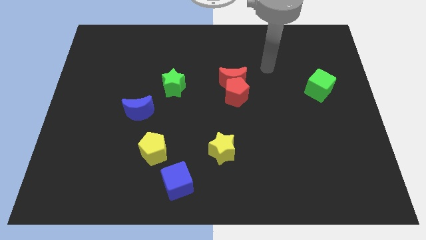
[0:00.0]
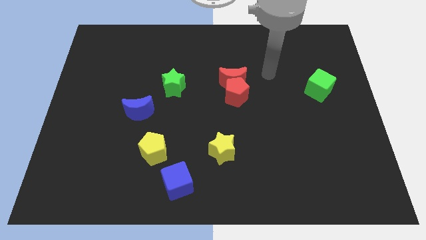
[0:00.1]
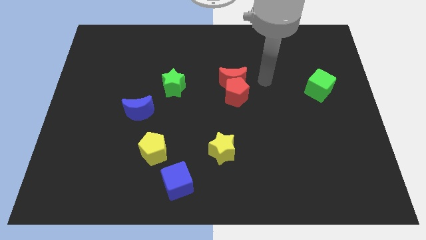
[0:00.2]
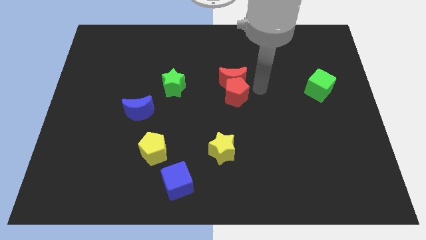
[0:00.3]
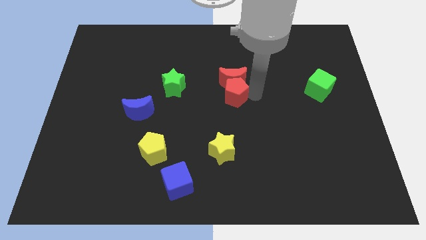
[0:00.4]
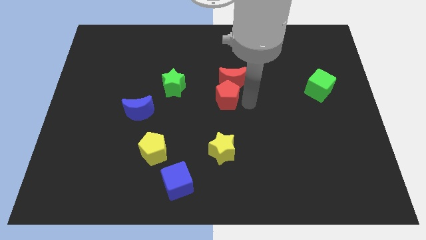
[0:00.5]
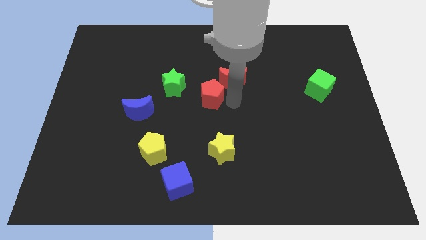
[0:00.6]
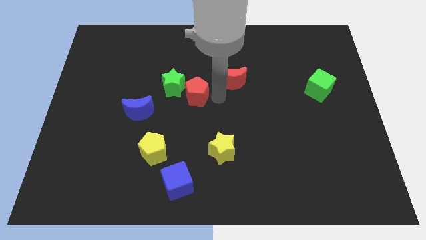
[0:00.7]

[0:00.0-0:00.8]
move the red moon away from the red pentagon

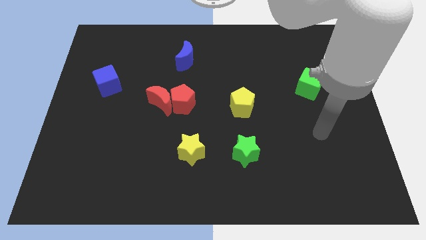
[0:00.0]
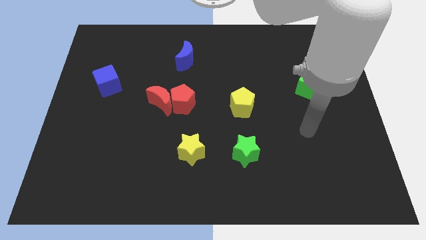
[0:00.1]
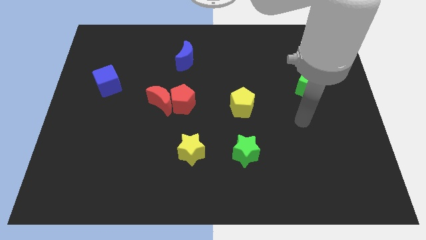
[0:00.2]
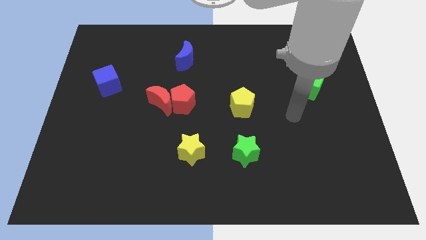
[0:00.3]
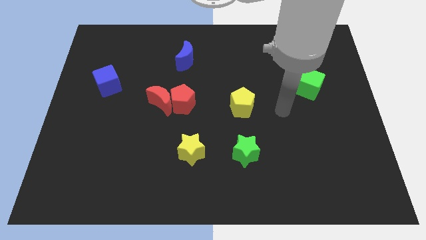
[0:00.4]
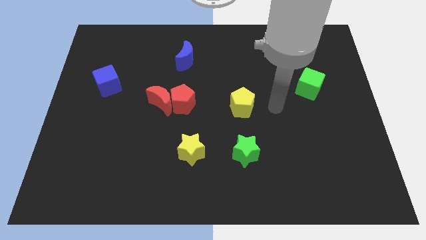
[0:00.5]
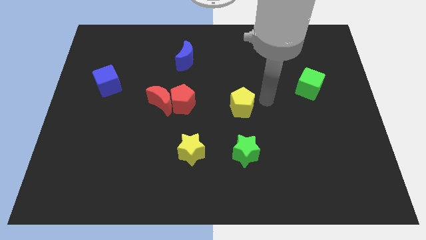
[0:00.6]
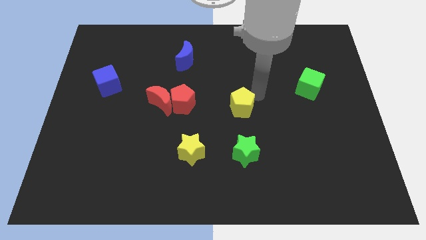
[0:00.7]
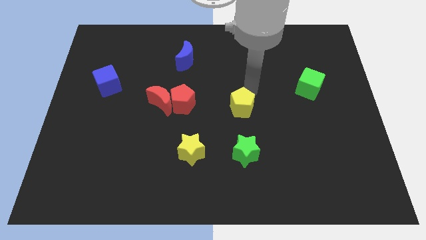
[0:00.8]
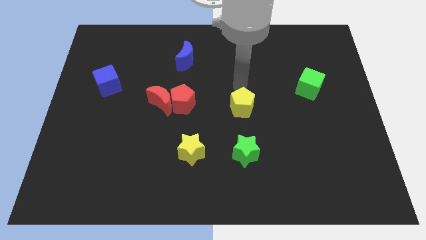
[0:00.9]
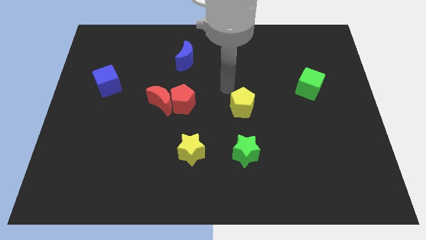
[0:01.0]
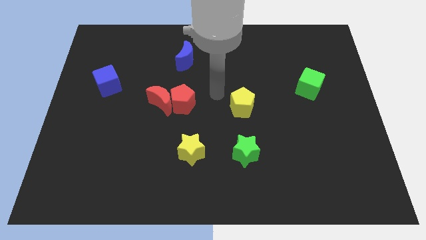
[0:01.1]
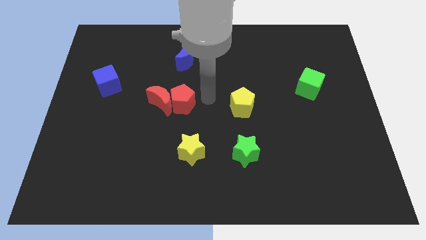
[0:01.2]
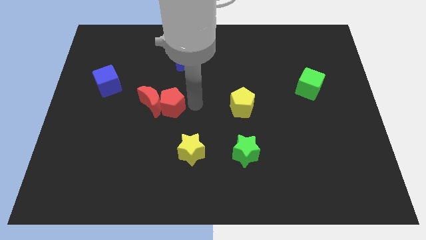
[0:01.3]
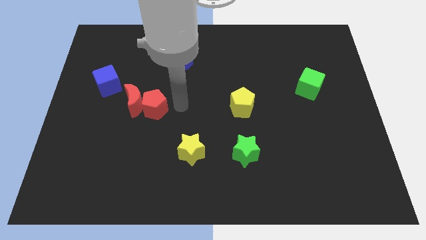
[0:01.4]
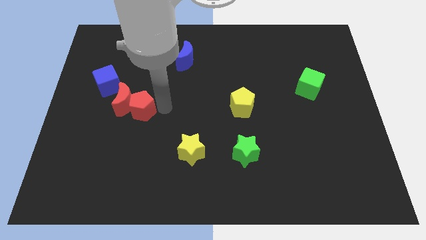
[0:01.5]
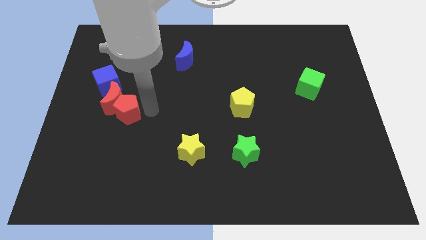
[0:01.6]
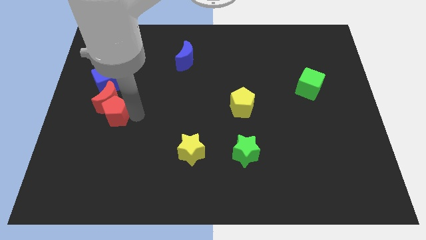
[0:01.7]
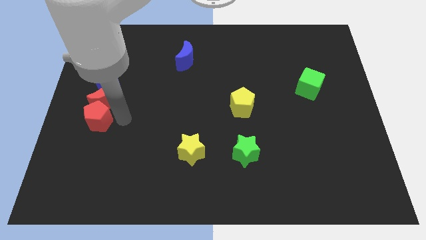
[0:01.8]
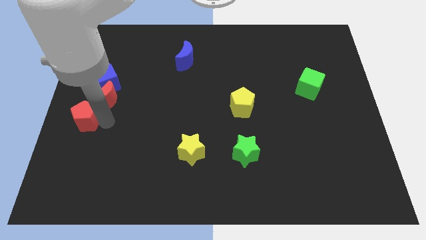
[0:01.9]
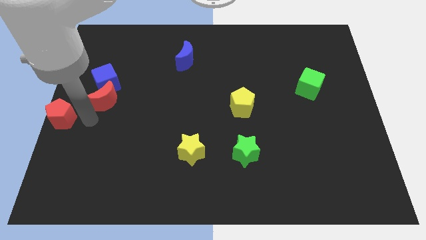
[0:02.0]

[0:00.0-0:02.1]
separate the red moon from the red pentagon

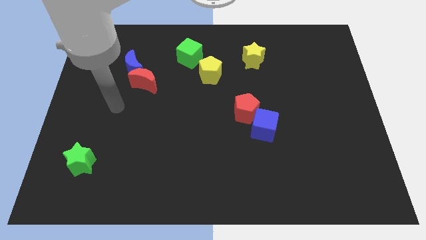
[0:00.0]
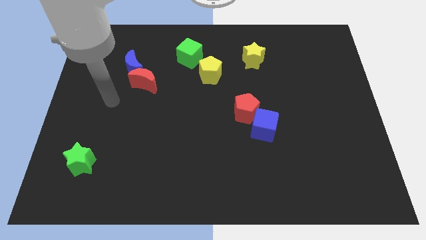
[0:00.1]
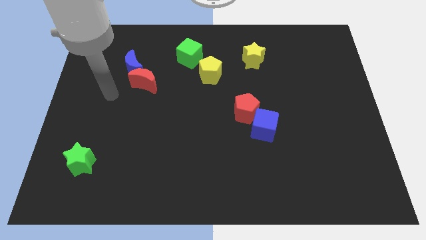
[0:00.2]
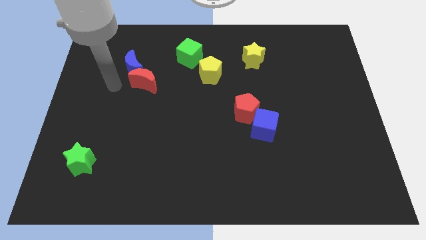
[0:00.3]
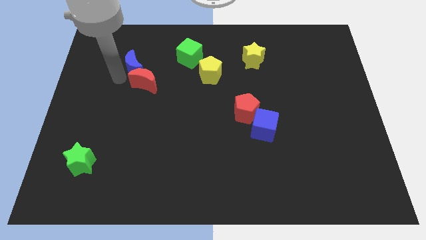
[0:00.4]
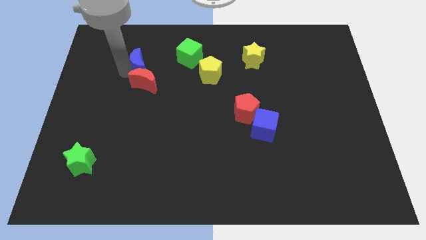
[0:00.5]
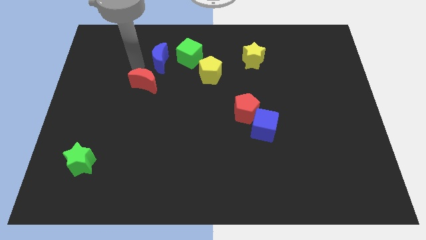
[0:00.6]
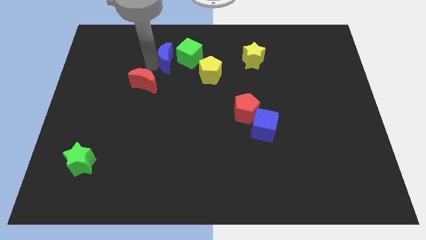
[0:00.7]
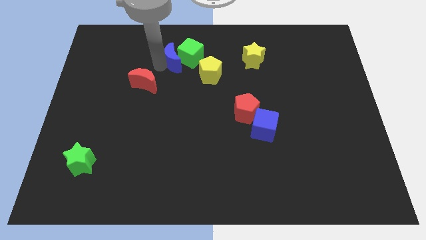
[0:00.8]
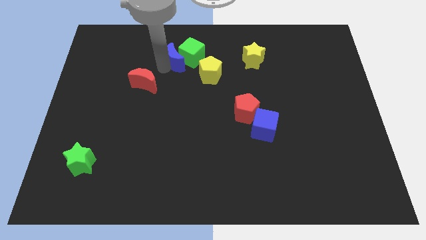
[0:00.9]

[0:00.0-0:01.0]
move the red moon away from the blue moon

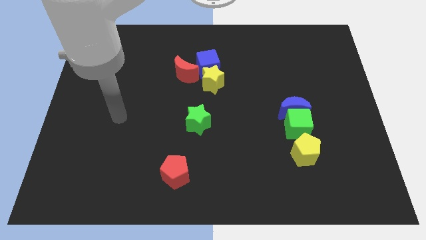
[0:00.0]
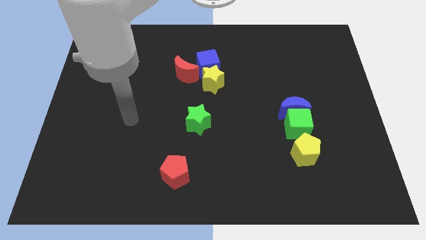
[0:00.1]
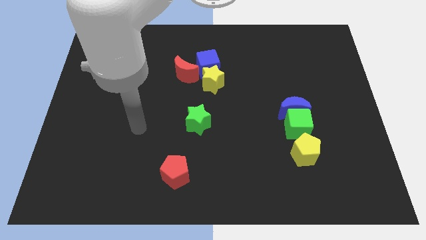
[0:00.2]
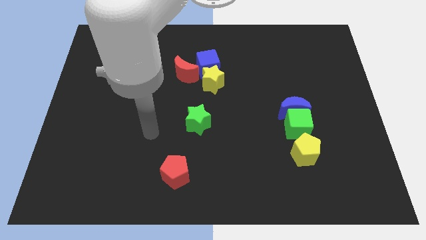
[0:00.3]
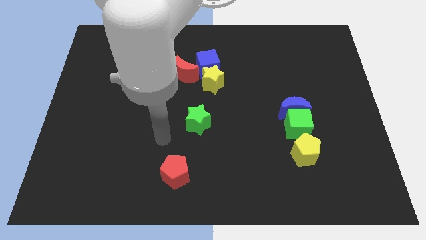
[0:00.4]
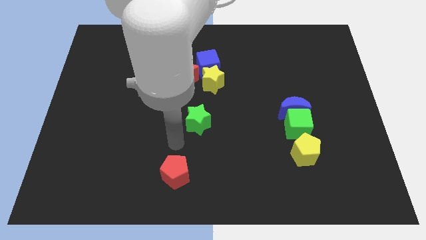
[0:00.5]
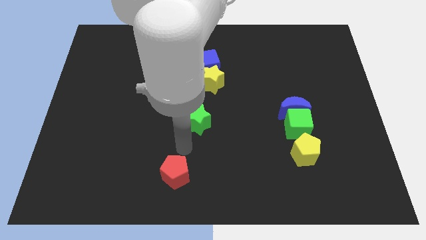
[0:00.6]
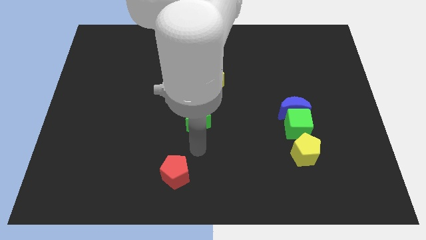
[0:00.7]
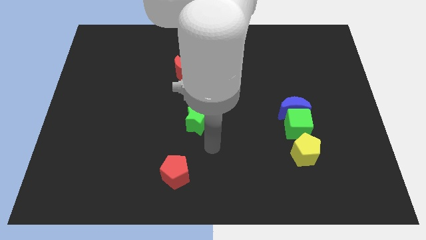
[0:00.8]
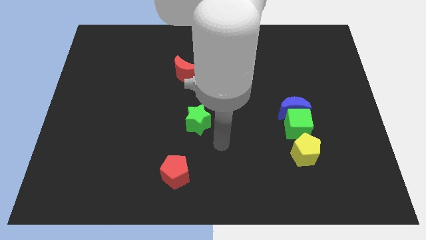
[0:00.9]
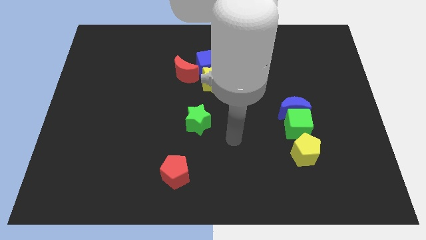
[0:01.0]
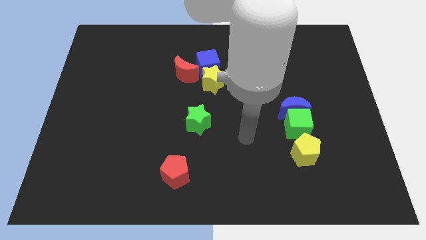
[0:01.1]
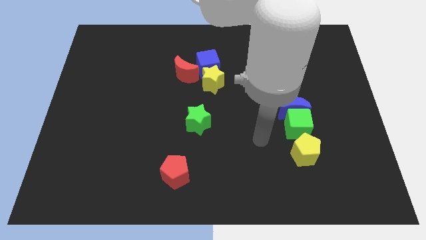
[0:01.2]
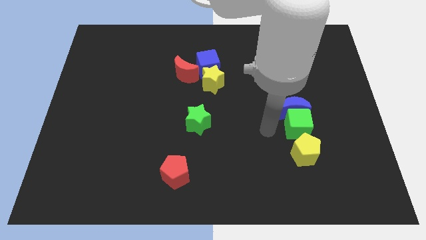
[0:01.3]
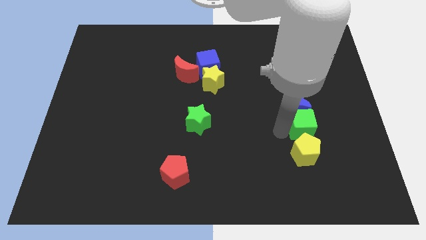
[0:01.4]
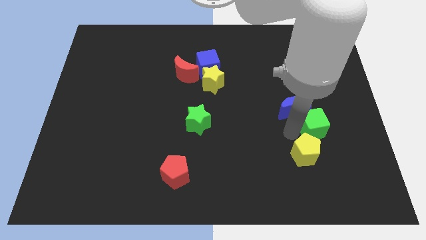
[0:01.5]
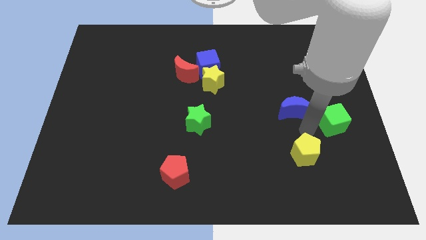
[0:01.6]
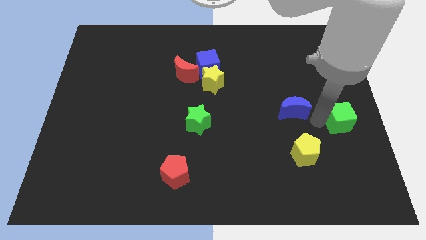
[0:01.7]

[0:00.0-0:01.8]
separate the blue moon from the green cube

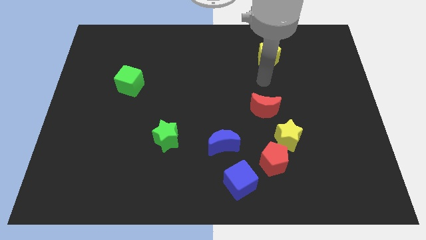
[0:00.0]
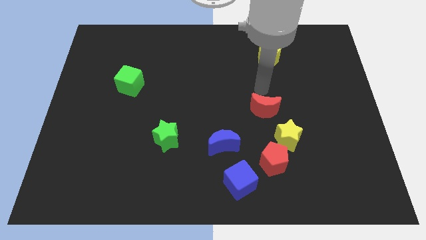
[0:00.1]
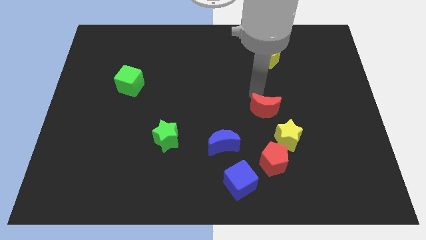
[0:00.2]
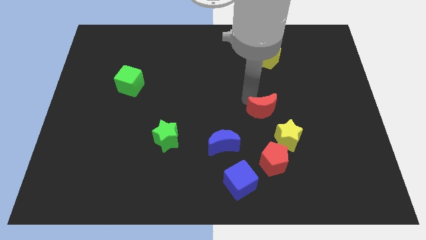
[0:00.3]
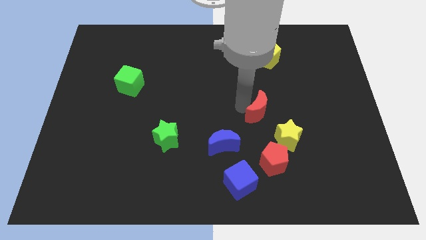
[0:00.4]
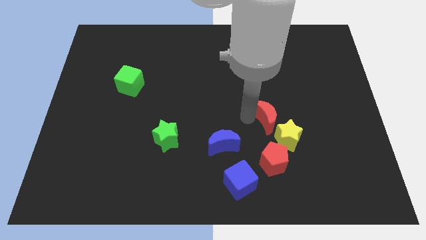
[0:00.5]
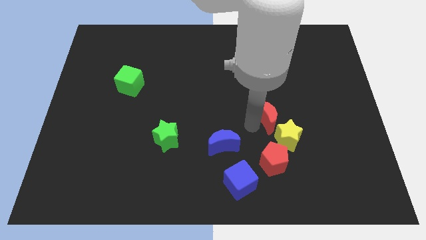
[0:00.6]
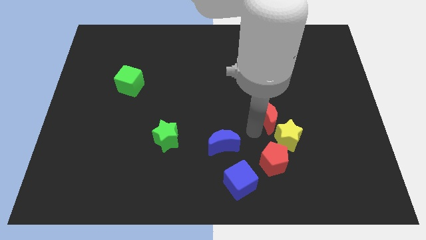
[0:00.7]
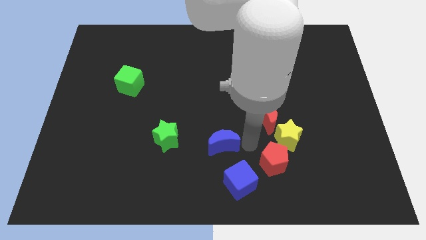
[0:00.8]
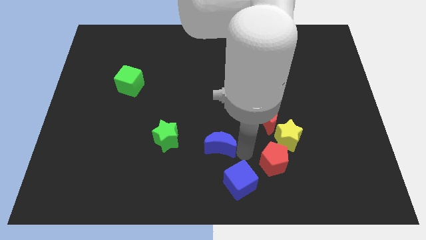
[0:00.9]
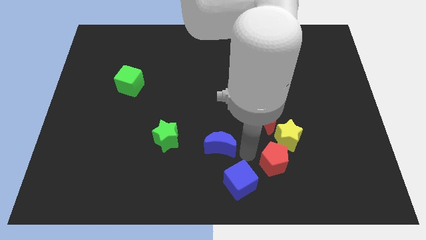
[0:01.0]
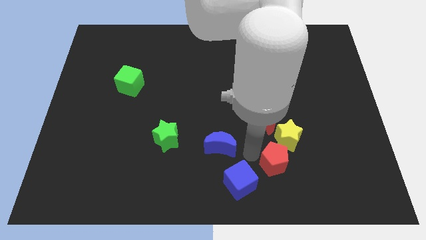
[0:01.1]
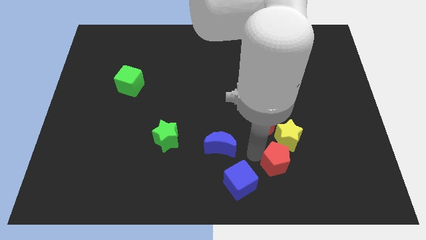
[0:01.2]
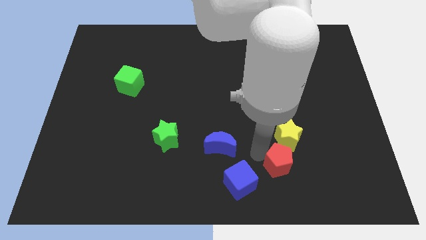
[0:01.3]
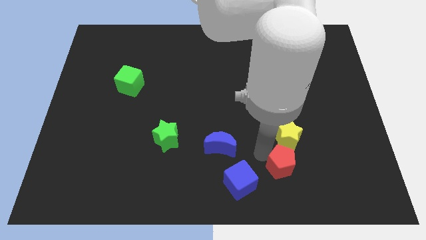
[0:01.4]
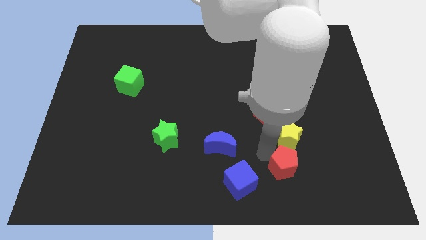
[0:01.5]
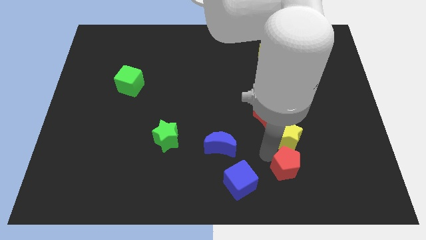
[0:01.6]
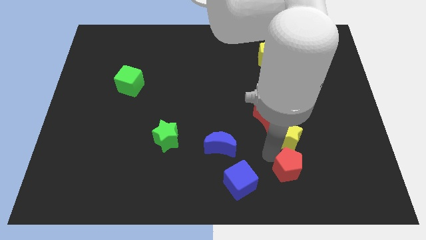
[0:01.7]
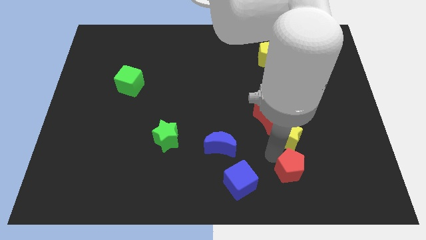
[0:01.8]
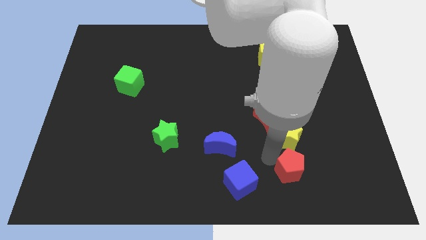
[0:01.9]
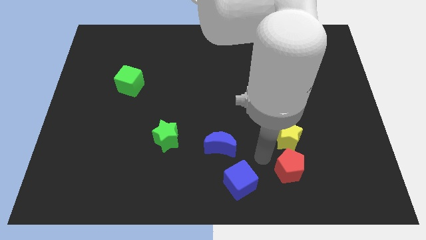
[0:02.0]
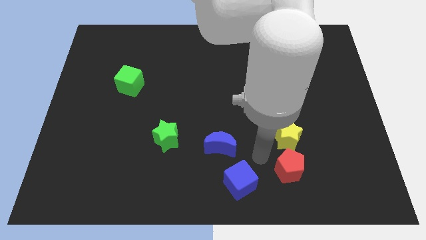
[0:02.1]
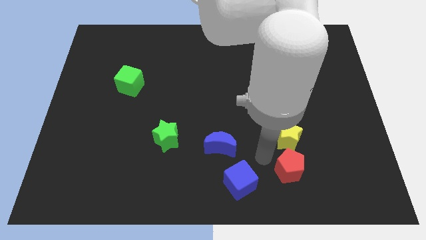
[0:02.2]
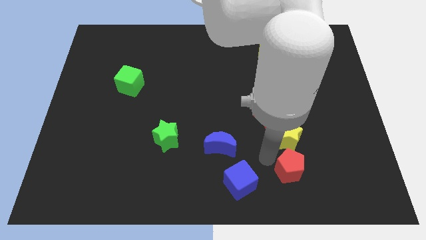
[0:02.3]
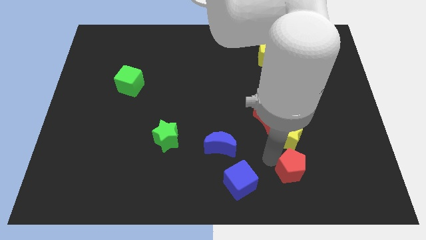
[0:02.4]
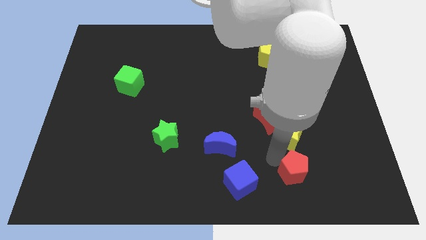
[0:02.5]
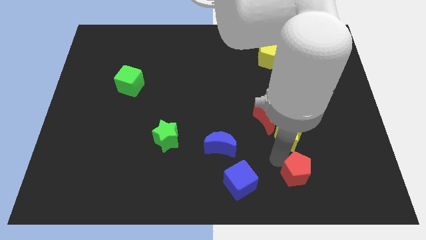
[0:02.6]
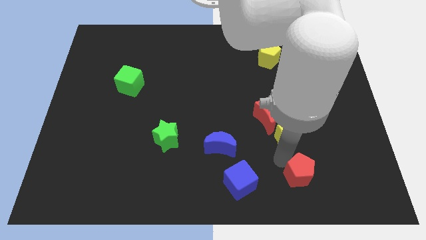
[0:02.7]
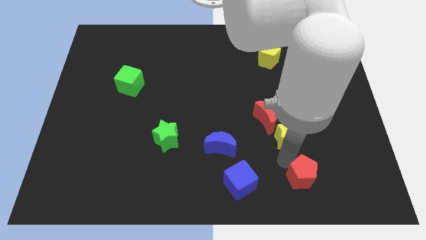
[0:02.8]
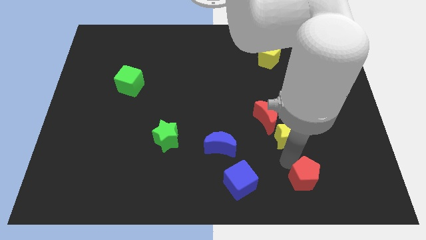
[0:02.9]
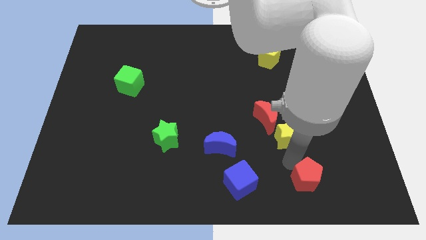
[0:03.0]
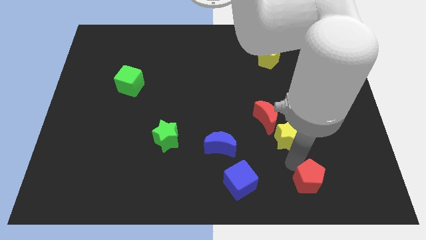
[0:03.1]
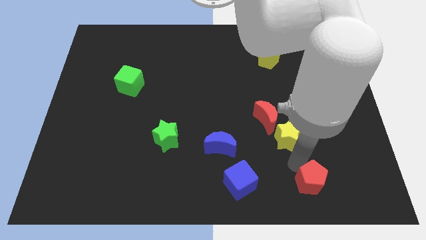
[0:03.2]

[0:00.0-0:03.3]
move the red pentagon away from the yellow star and blue cube

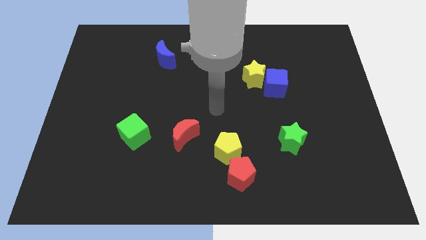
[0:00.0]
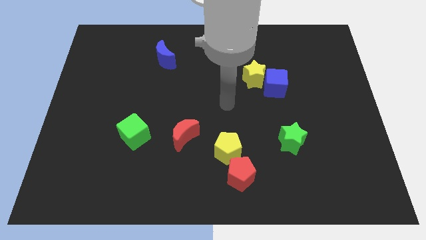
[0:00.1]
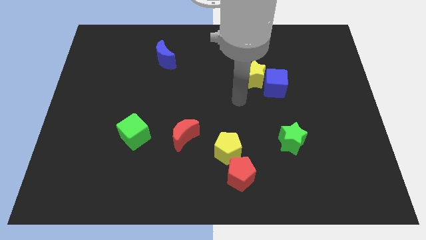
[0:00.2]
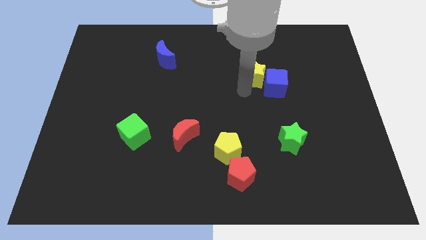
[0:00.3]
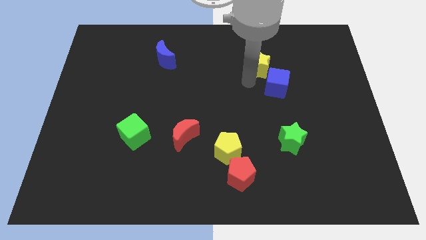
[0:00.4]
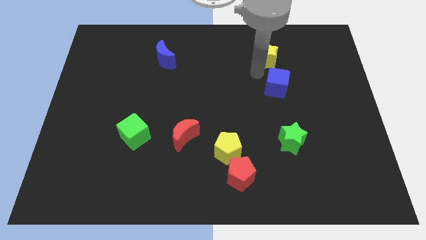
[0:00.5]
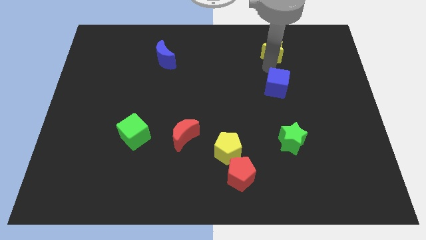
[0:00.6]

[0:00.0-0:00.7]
move the blue cube away from the yellow star
